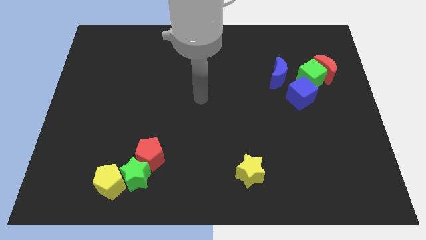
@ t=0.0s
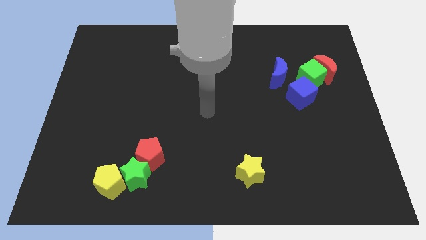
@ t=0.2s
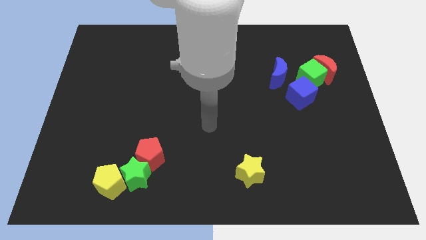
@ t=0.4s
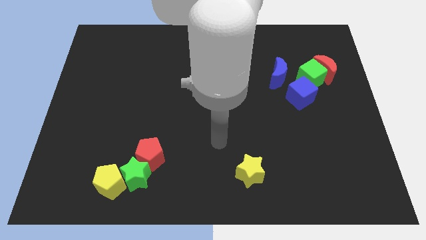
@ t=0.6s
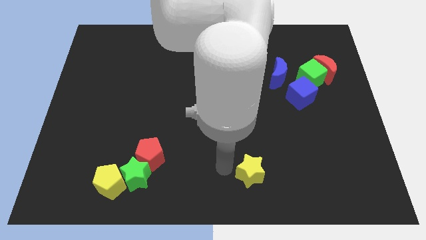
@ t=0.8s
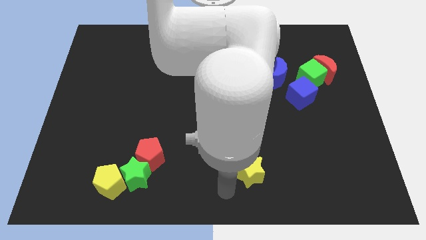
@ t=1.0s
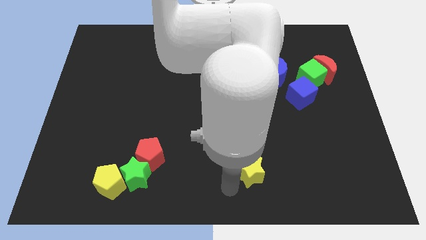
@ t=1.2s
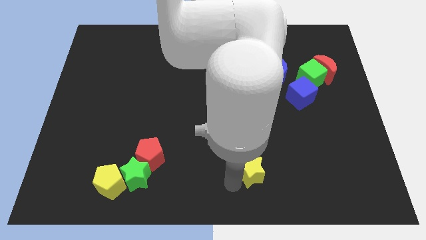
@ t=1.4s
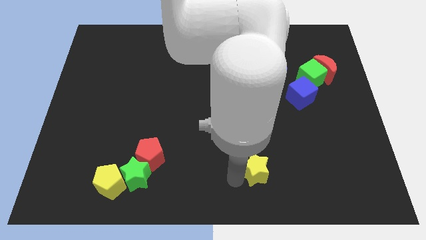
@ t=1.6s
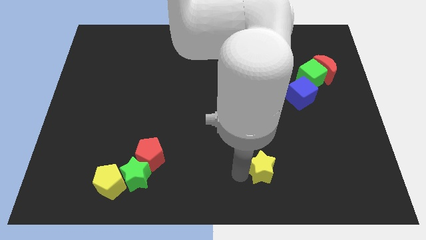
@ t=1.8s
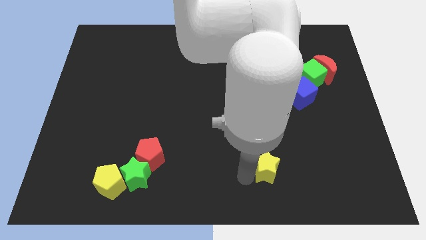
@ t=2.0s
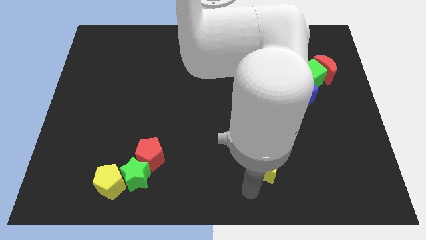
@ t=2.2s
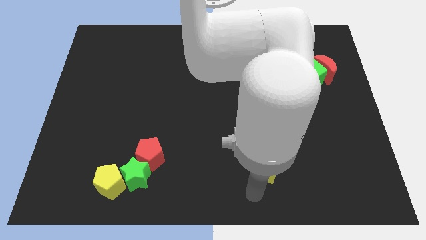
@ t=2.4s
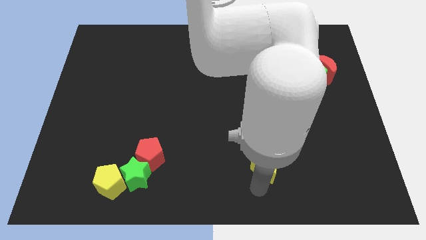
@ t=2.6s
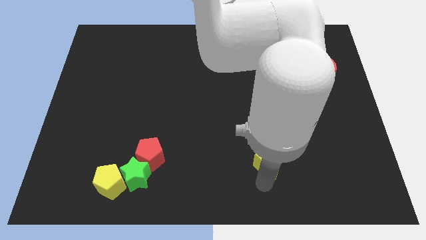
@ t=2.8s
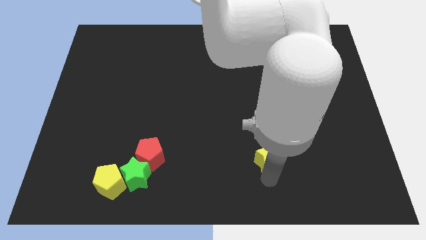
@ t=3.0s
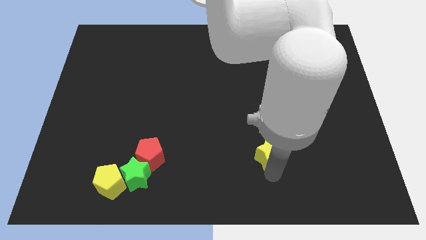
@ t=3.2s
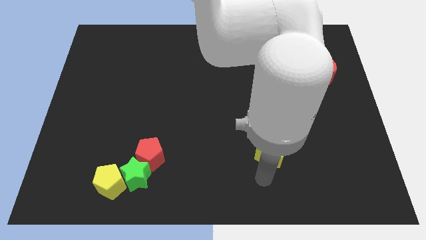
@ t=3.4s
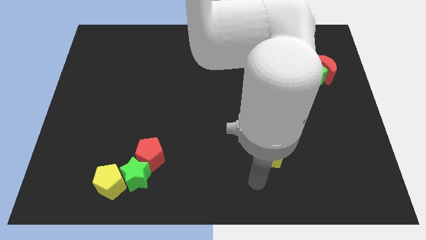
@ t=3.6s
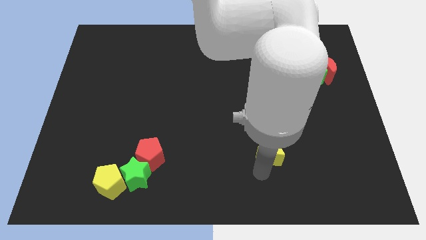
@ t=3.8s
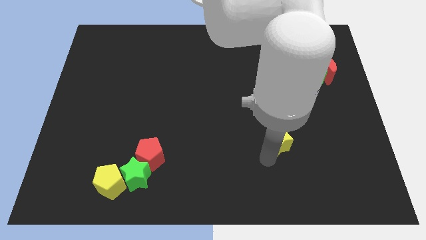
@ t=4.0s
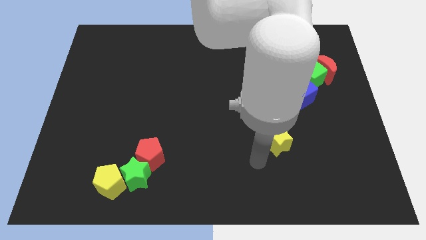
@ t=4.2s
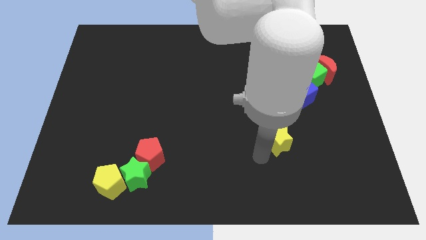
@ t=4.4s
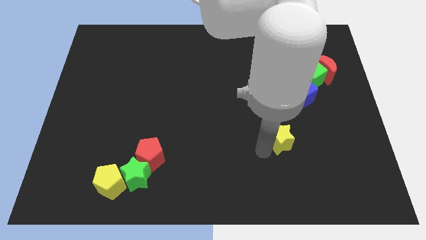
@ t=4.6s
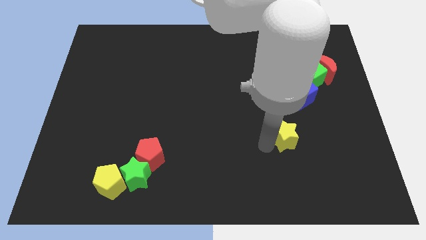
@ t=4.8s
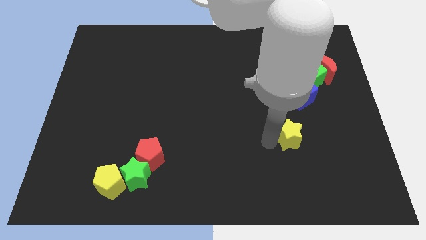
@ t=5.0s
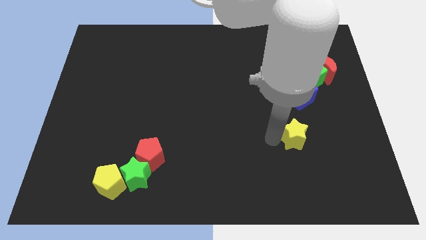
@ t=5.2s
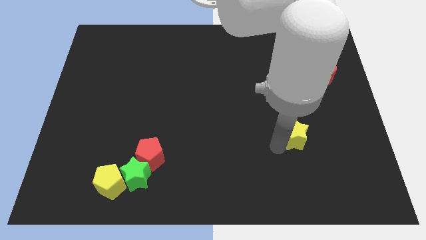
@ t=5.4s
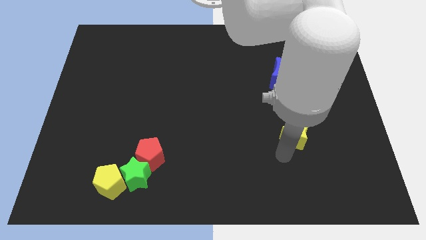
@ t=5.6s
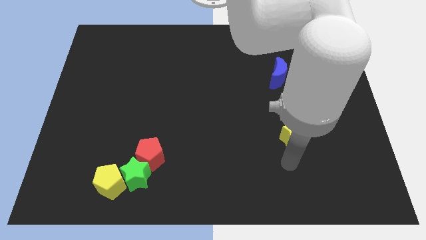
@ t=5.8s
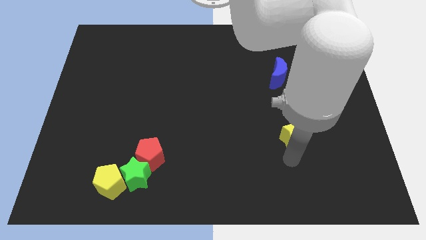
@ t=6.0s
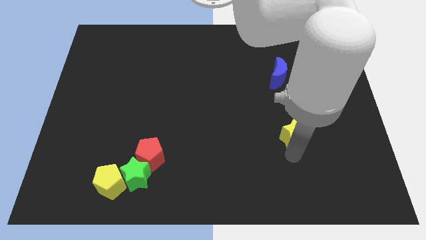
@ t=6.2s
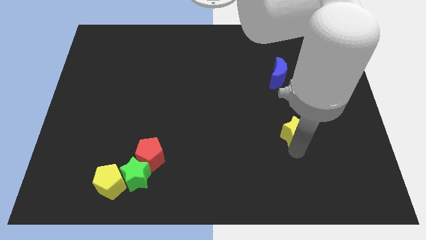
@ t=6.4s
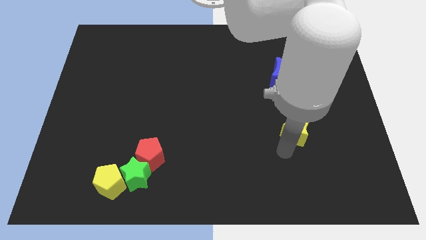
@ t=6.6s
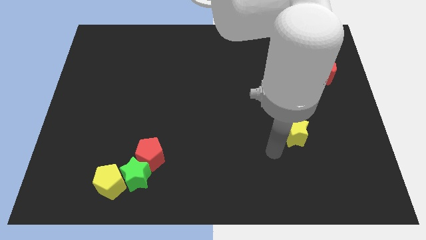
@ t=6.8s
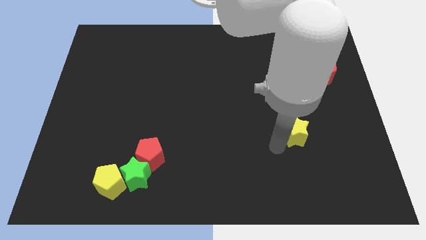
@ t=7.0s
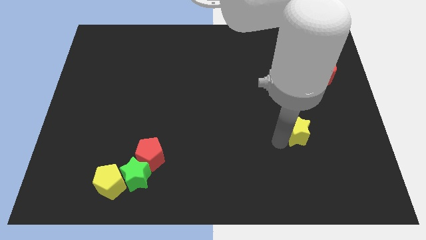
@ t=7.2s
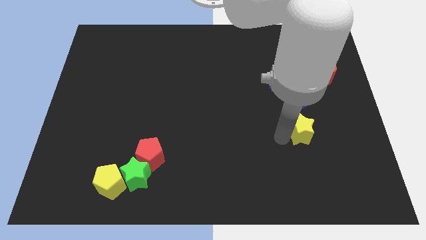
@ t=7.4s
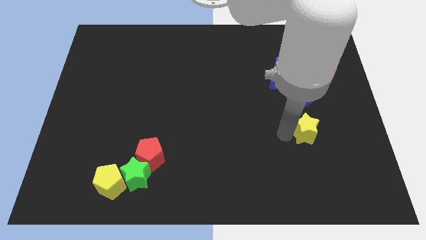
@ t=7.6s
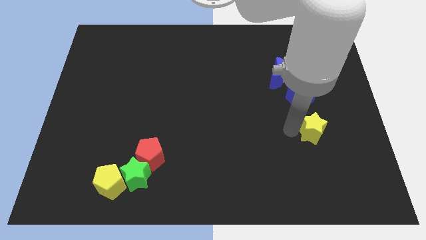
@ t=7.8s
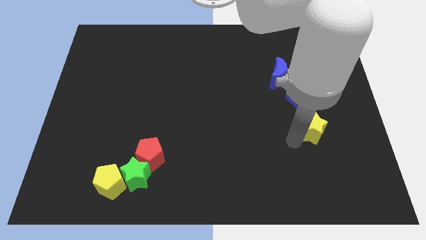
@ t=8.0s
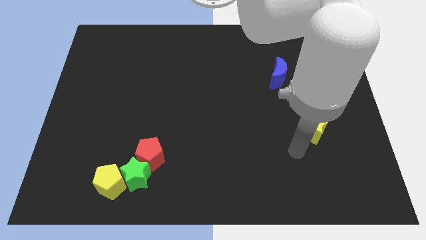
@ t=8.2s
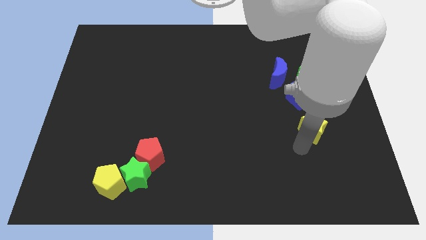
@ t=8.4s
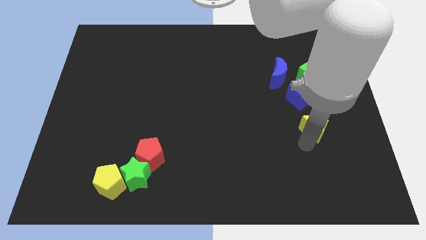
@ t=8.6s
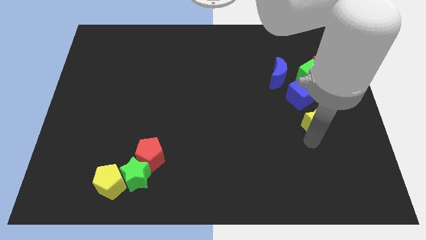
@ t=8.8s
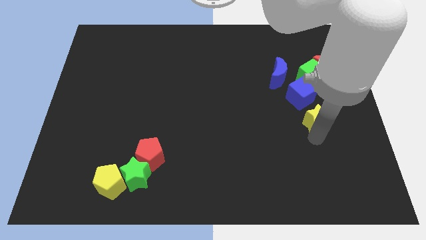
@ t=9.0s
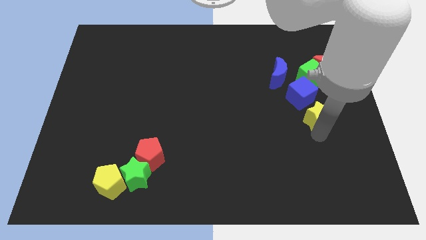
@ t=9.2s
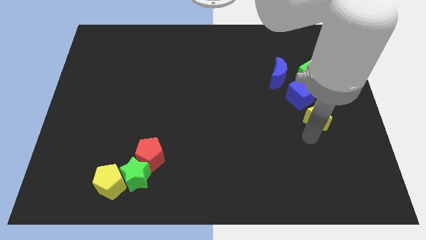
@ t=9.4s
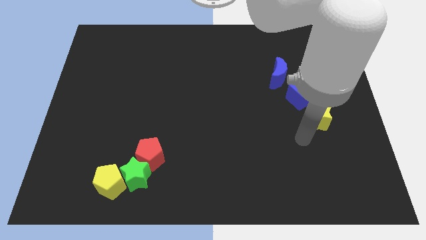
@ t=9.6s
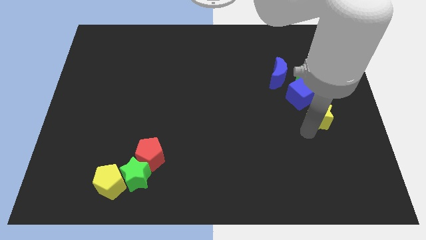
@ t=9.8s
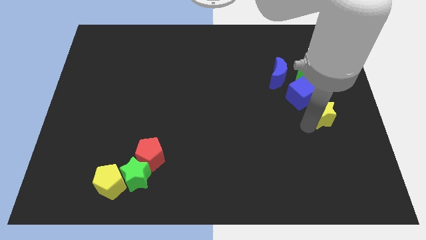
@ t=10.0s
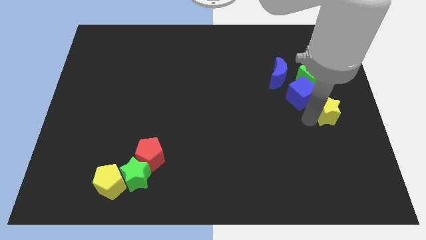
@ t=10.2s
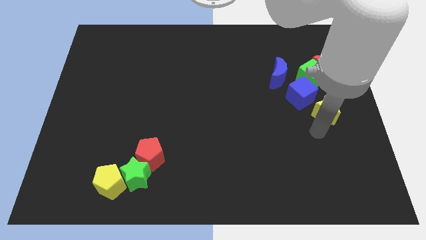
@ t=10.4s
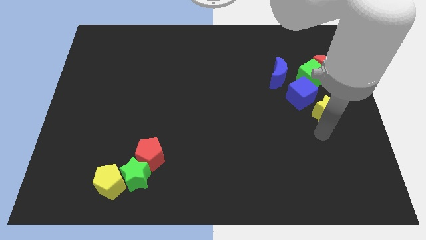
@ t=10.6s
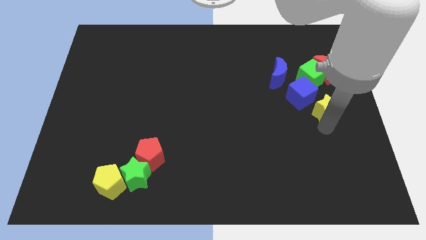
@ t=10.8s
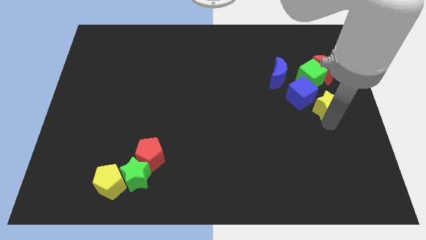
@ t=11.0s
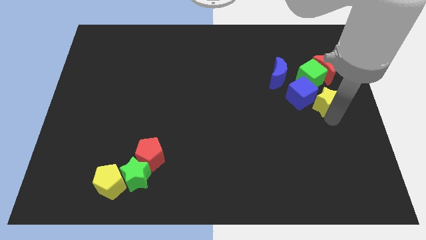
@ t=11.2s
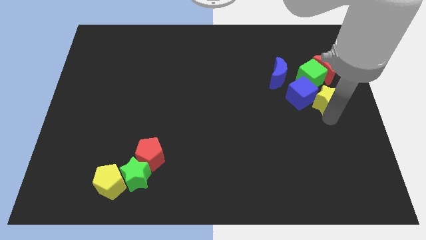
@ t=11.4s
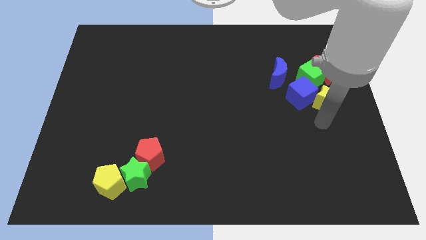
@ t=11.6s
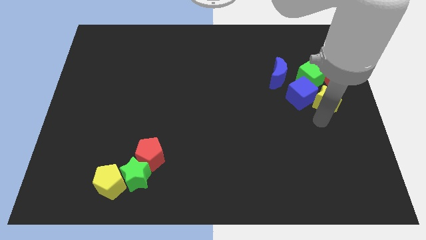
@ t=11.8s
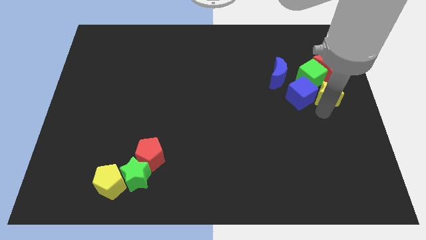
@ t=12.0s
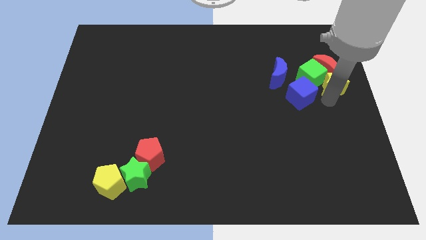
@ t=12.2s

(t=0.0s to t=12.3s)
move the yellow star to the red moon

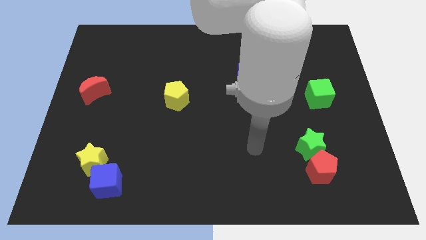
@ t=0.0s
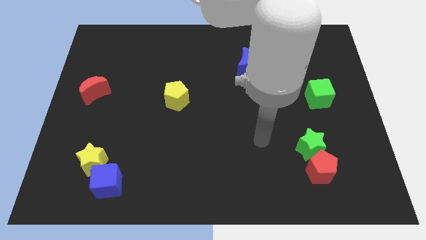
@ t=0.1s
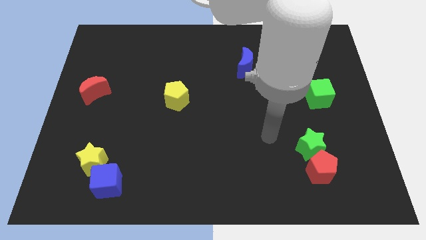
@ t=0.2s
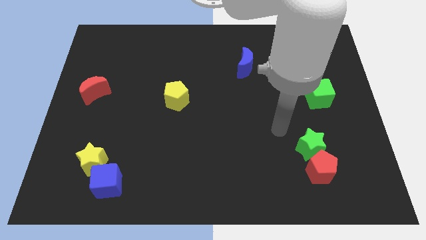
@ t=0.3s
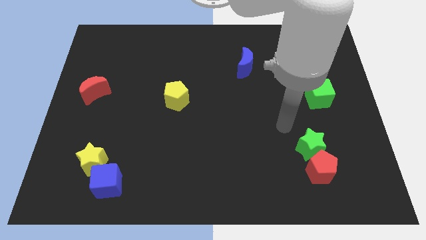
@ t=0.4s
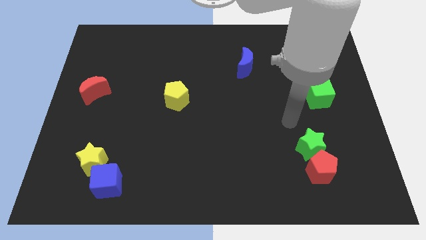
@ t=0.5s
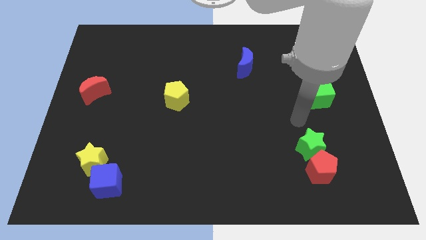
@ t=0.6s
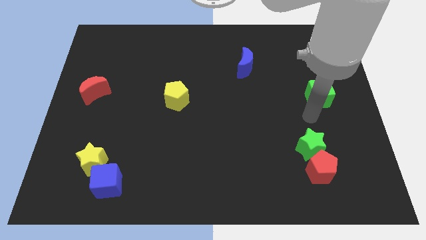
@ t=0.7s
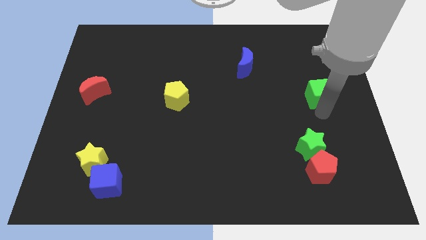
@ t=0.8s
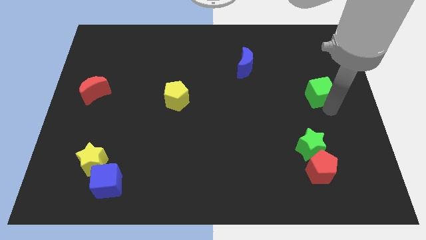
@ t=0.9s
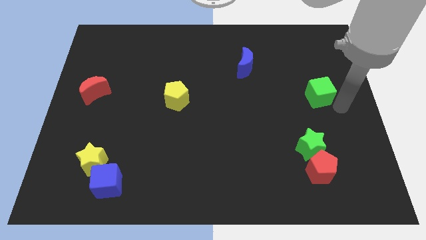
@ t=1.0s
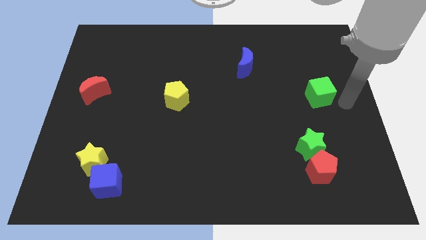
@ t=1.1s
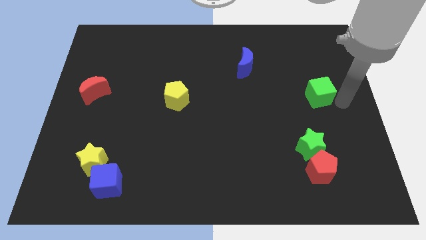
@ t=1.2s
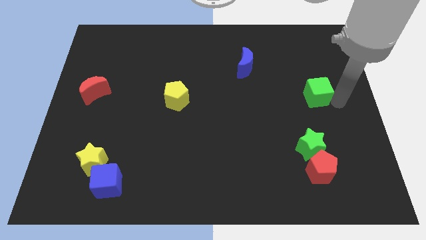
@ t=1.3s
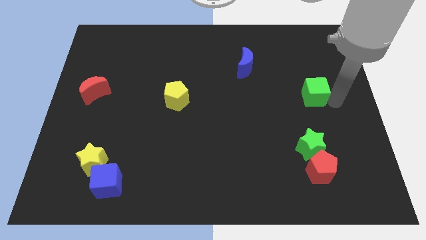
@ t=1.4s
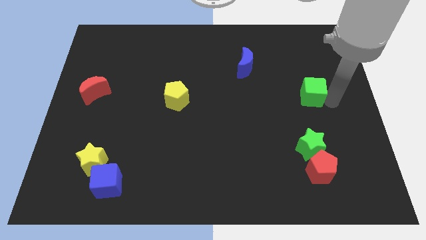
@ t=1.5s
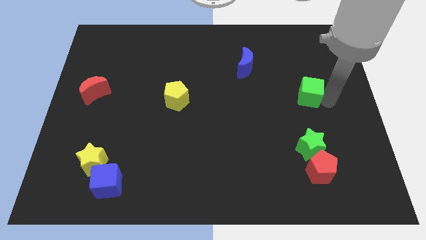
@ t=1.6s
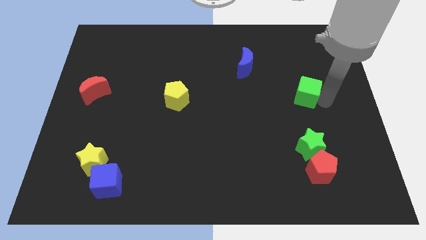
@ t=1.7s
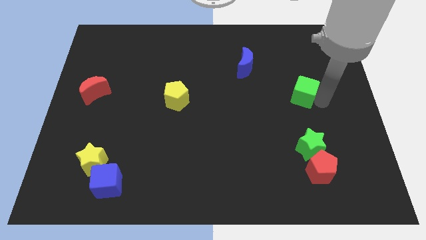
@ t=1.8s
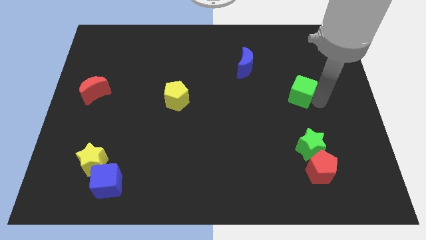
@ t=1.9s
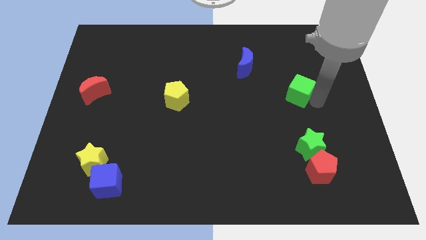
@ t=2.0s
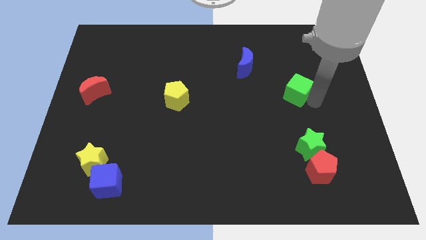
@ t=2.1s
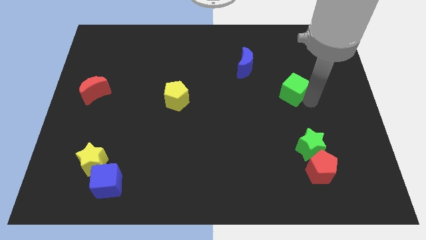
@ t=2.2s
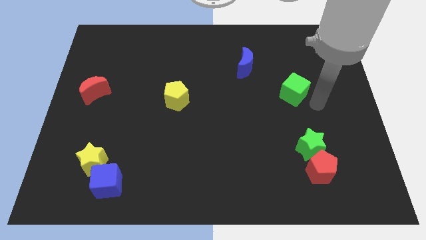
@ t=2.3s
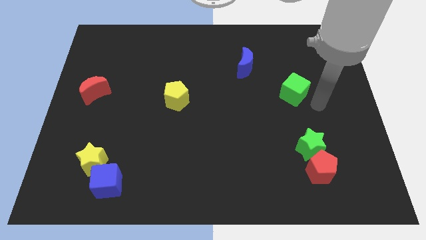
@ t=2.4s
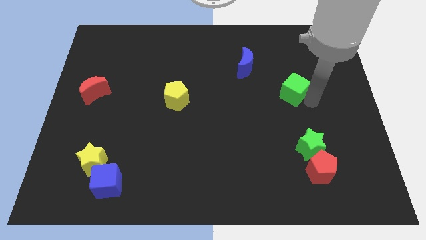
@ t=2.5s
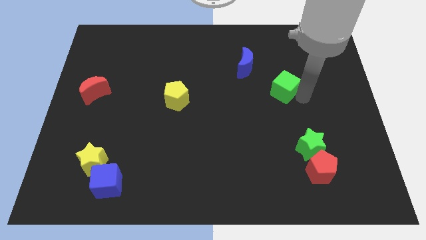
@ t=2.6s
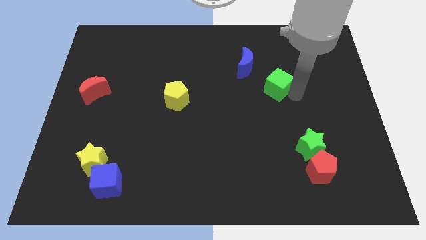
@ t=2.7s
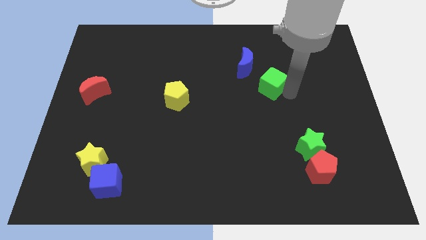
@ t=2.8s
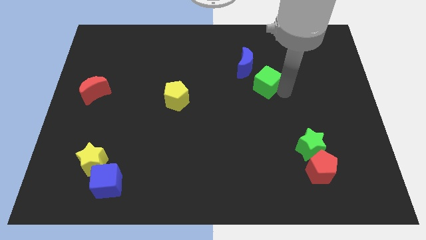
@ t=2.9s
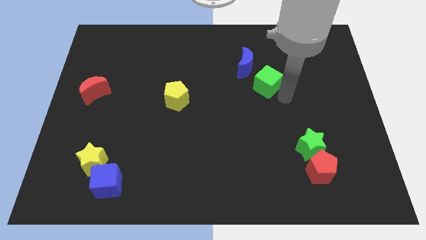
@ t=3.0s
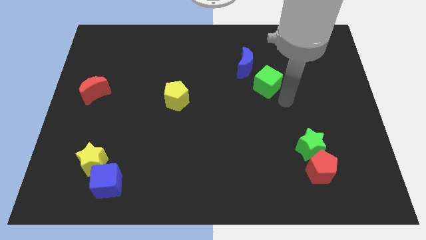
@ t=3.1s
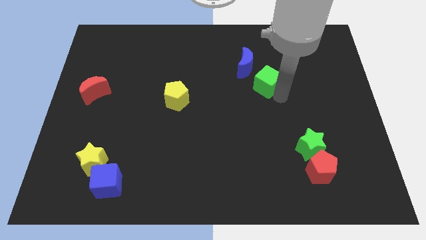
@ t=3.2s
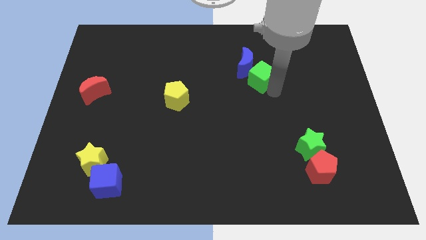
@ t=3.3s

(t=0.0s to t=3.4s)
push the green cube next to the blue moon
